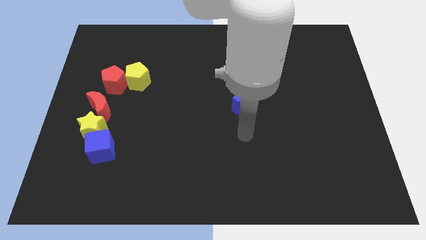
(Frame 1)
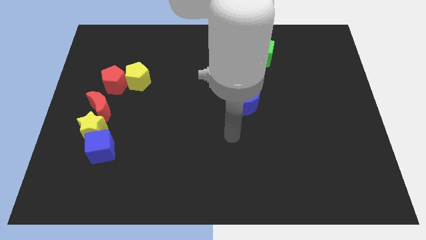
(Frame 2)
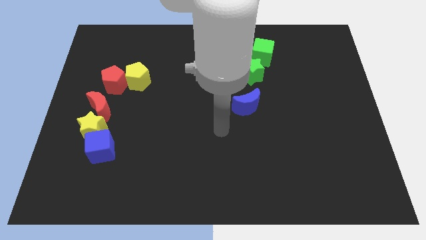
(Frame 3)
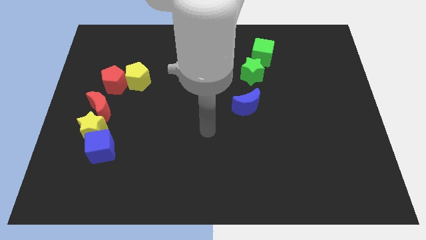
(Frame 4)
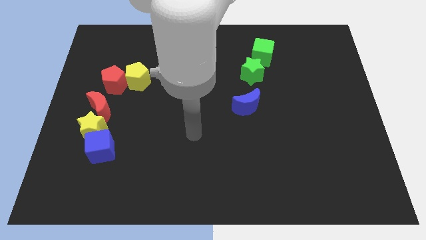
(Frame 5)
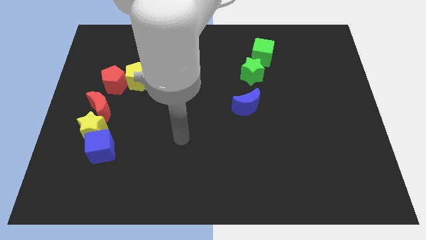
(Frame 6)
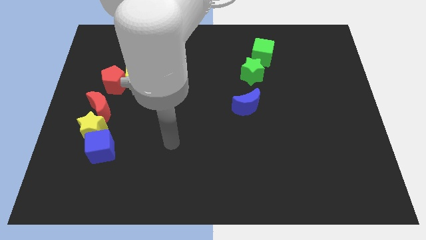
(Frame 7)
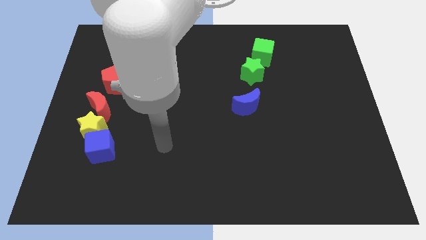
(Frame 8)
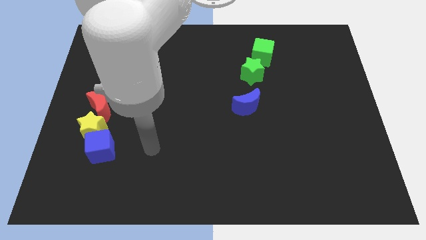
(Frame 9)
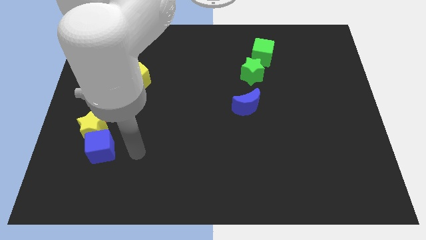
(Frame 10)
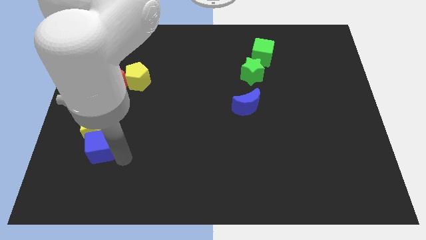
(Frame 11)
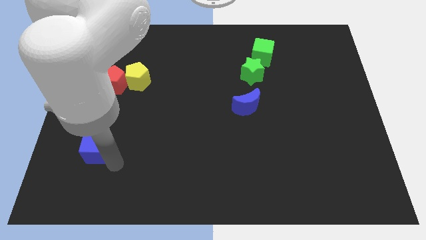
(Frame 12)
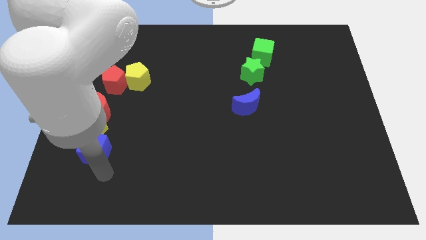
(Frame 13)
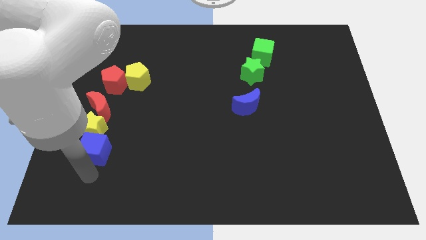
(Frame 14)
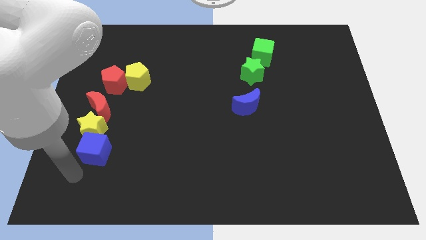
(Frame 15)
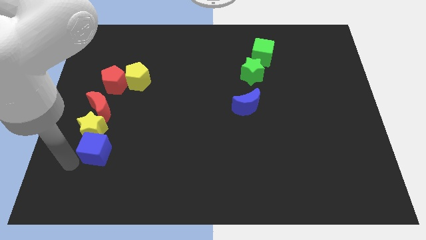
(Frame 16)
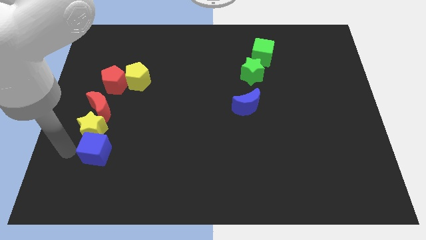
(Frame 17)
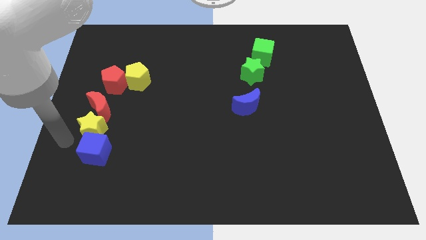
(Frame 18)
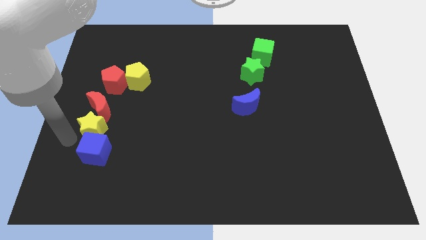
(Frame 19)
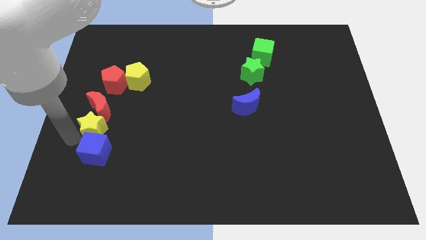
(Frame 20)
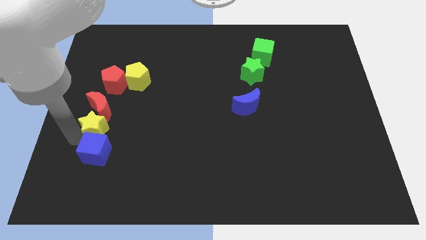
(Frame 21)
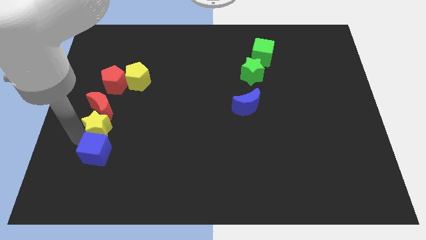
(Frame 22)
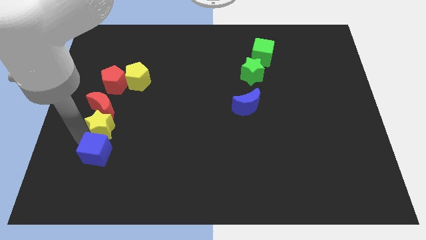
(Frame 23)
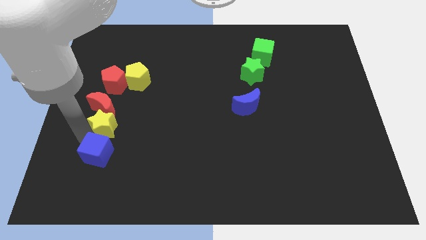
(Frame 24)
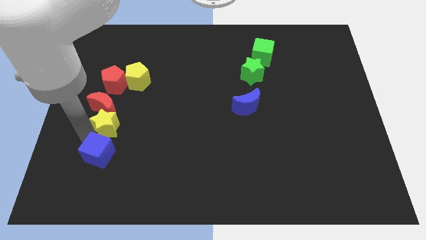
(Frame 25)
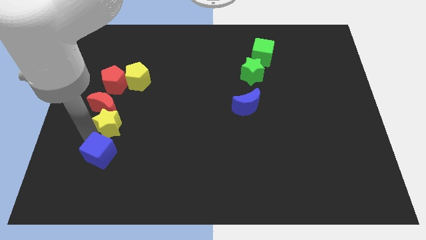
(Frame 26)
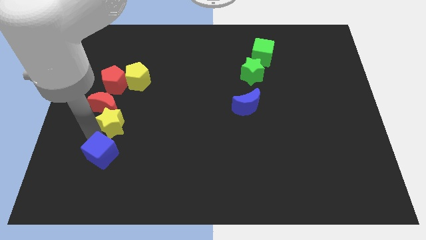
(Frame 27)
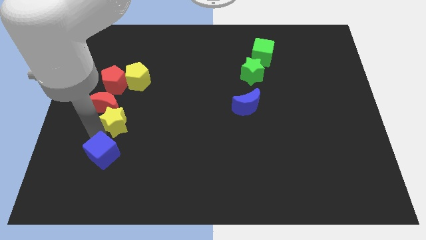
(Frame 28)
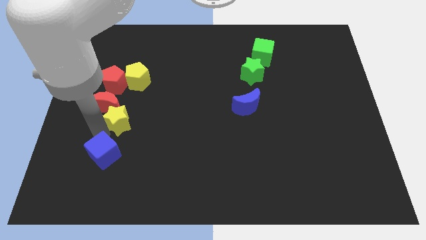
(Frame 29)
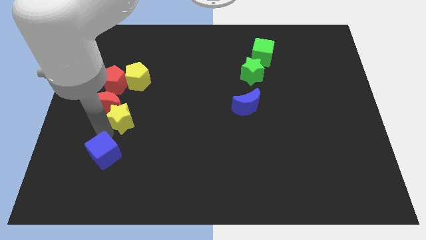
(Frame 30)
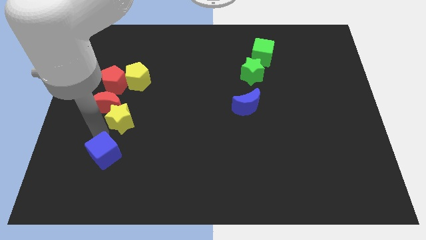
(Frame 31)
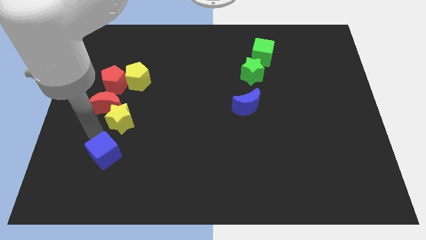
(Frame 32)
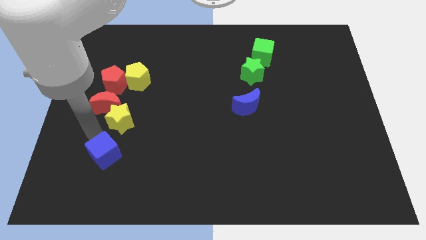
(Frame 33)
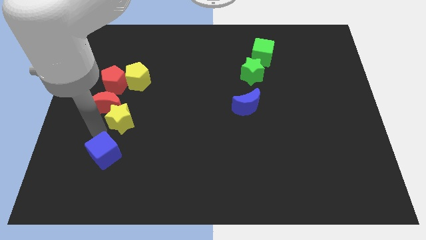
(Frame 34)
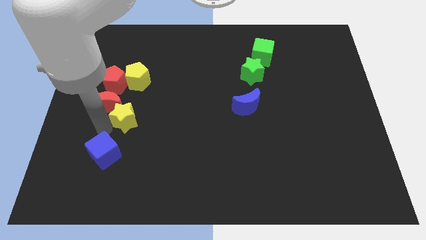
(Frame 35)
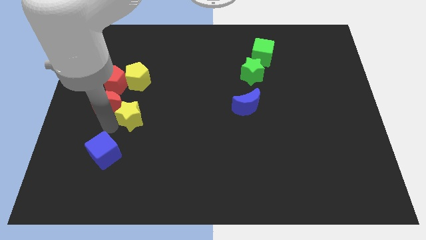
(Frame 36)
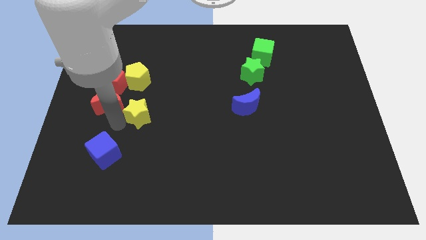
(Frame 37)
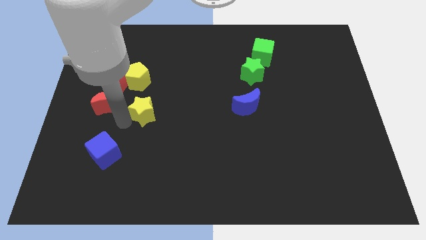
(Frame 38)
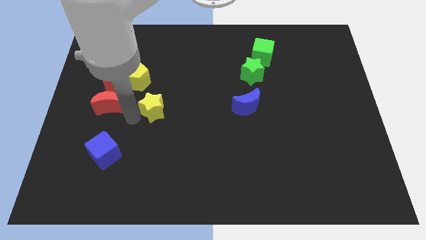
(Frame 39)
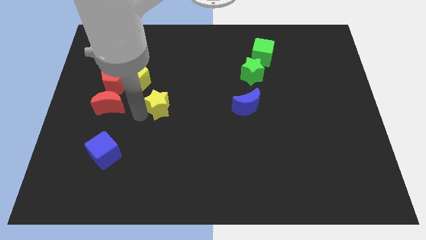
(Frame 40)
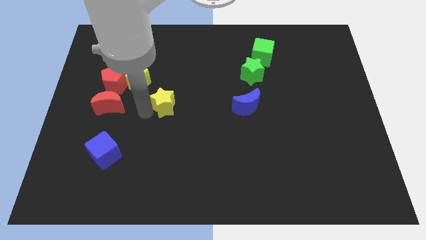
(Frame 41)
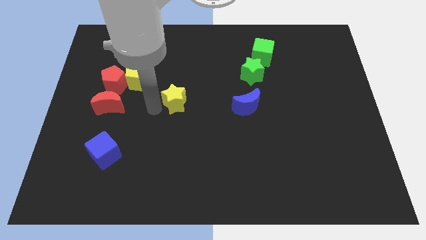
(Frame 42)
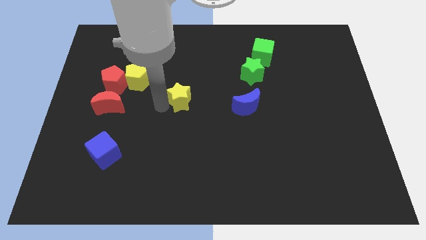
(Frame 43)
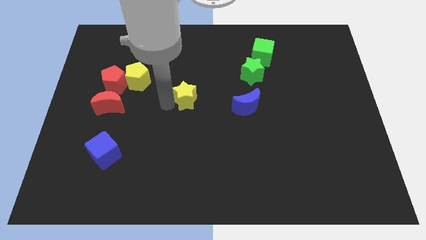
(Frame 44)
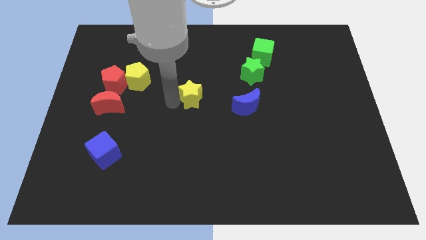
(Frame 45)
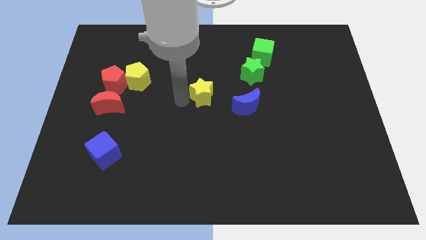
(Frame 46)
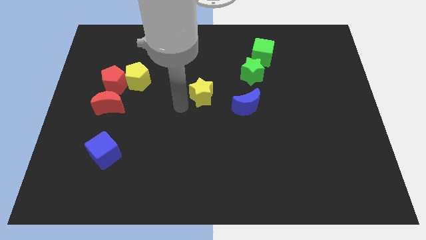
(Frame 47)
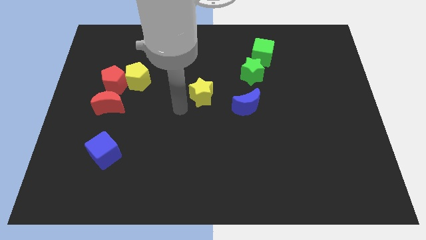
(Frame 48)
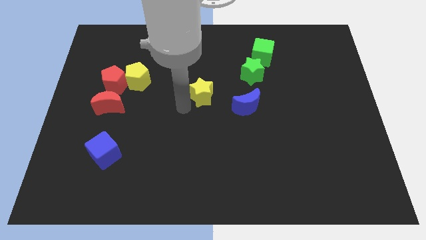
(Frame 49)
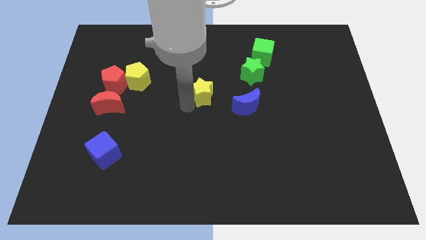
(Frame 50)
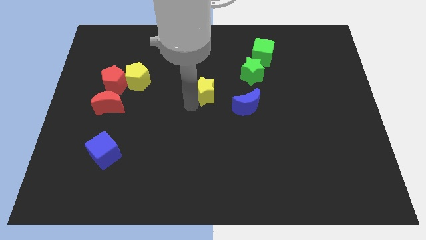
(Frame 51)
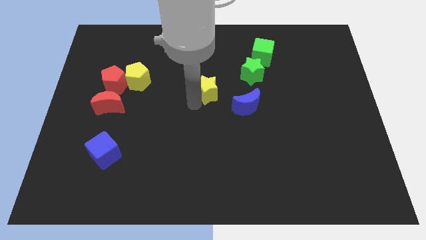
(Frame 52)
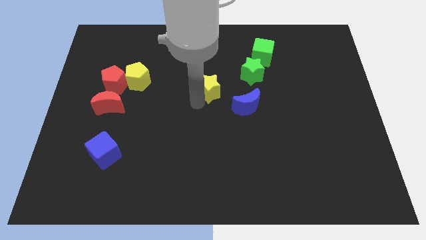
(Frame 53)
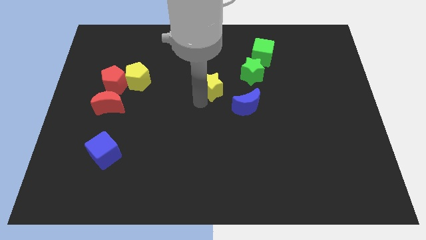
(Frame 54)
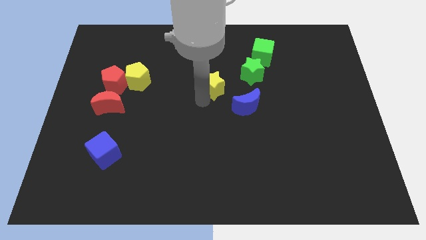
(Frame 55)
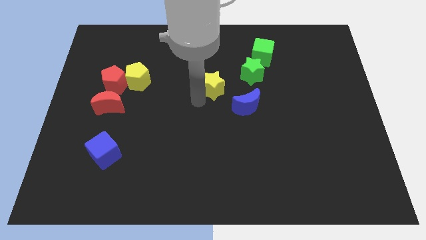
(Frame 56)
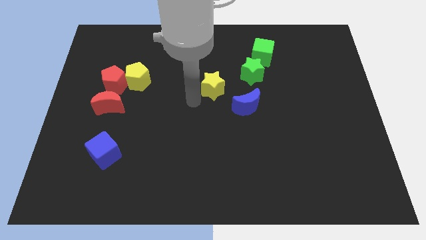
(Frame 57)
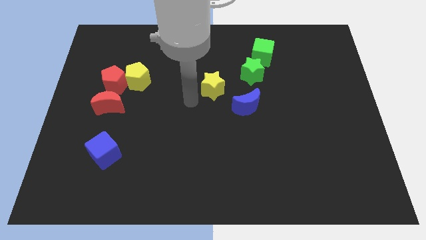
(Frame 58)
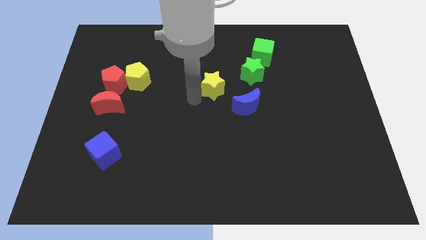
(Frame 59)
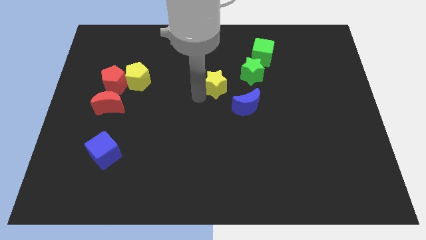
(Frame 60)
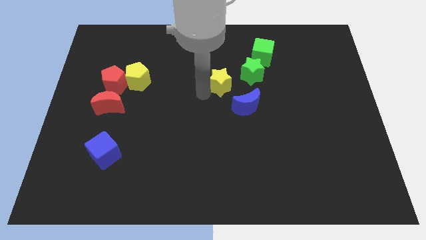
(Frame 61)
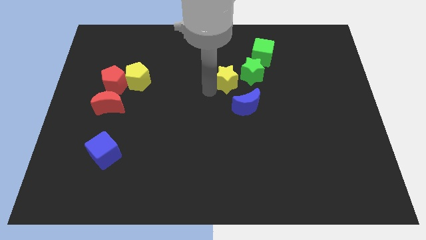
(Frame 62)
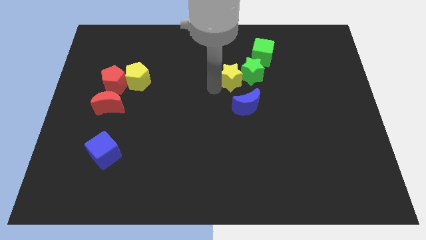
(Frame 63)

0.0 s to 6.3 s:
slide the yellow star close to the green star

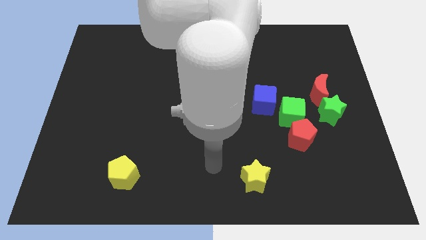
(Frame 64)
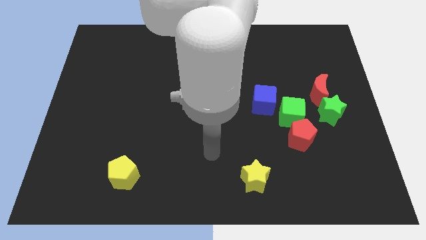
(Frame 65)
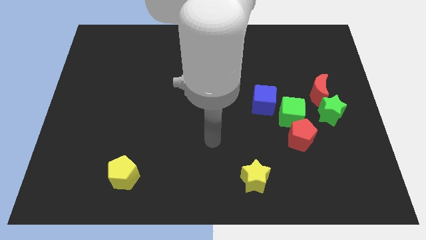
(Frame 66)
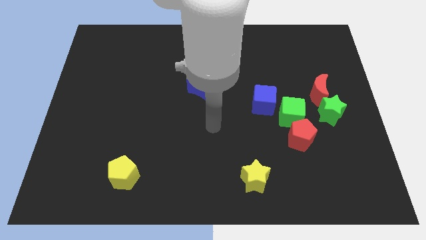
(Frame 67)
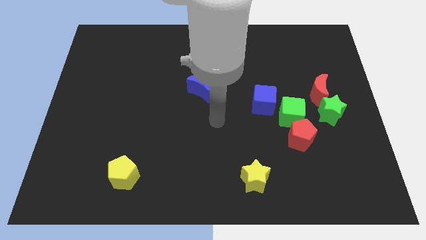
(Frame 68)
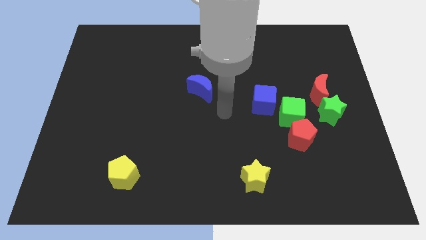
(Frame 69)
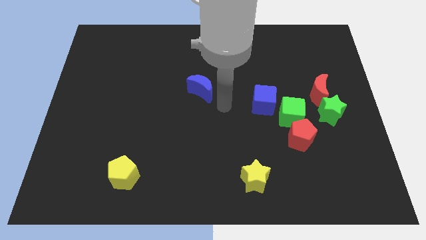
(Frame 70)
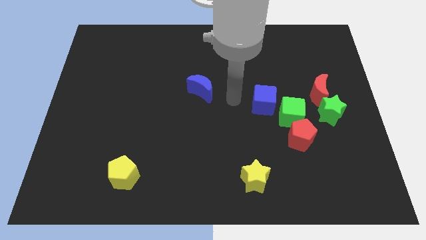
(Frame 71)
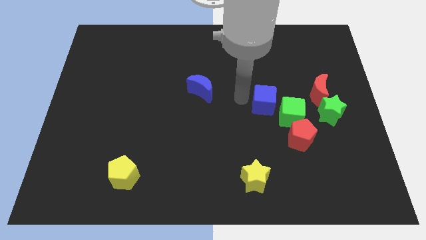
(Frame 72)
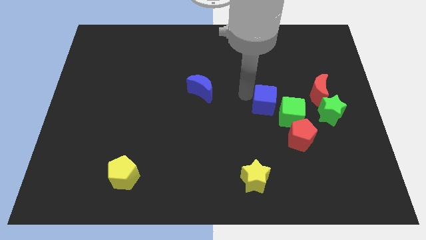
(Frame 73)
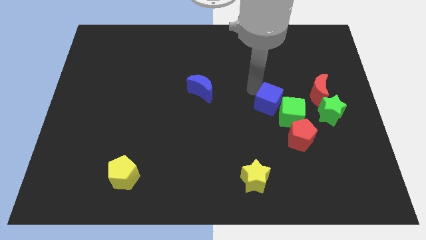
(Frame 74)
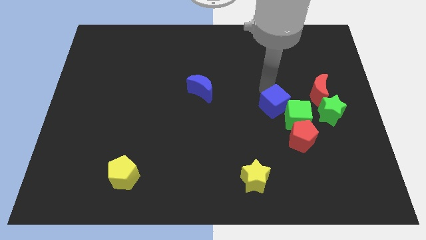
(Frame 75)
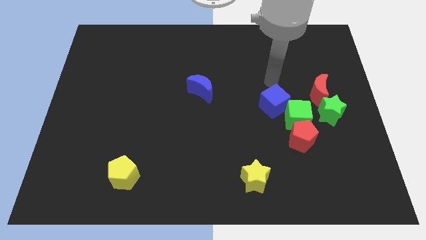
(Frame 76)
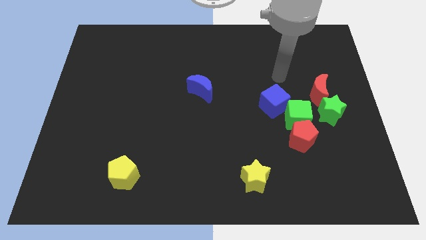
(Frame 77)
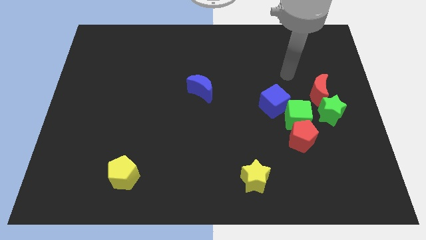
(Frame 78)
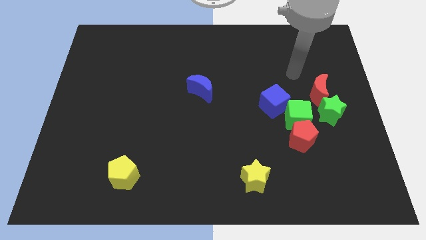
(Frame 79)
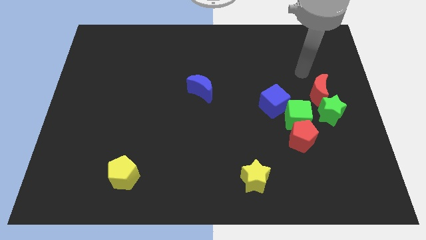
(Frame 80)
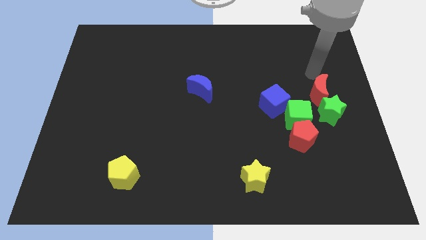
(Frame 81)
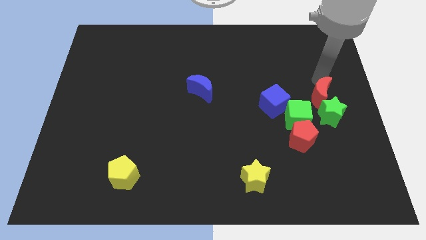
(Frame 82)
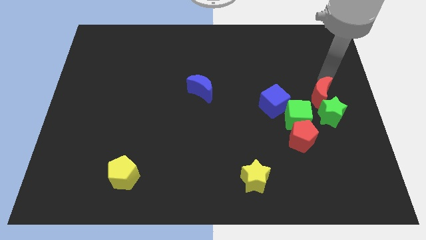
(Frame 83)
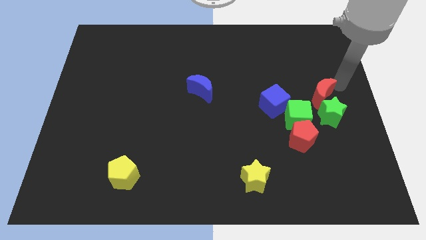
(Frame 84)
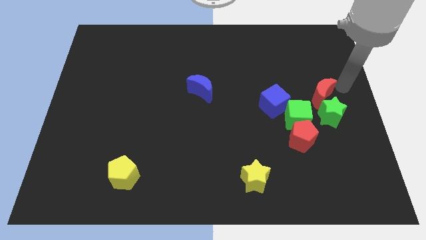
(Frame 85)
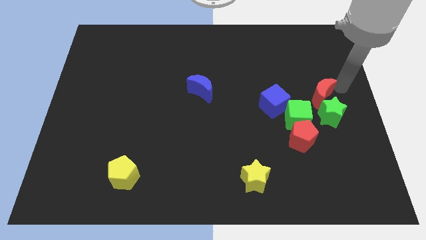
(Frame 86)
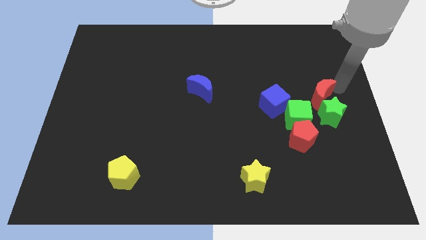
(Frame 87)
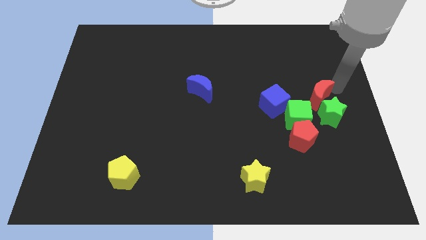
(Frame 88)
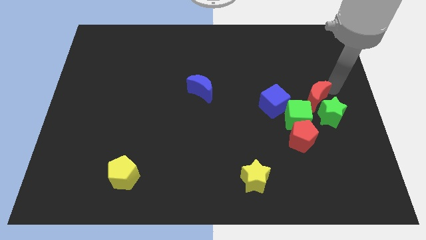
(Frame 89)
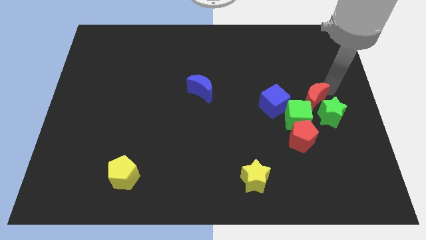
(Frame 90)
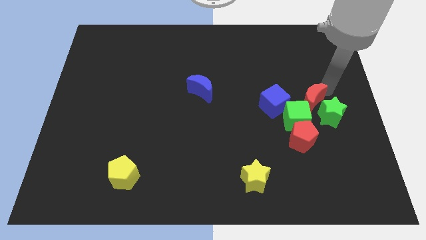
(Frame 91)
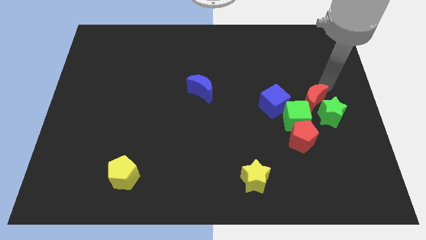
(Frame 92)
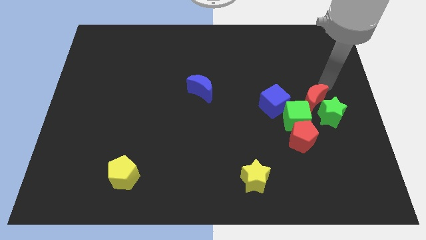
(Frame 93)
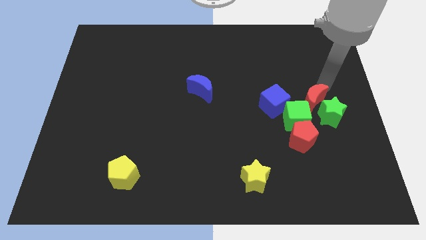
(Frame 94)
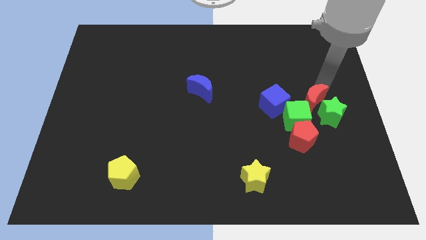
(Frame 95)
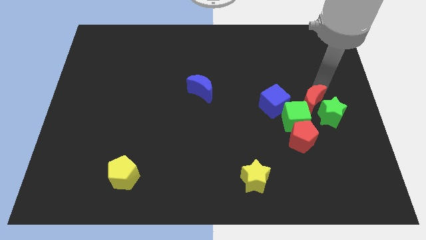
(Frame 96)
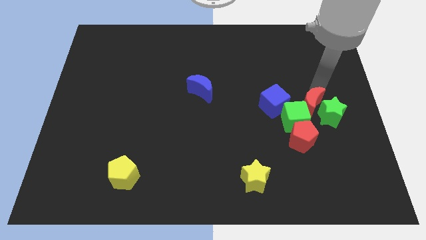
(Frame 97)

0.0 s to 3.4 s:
put the red moon next to the green cube
